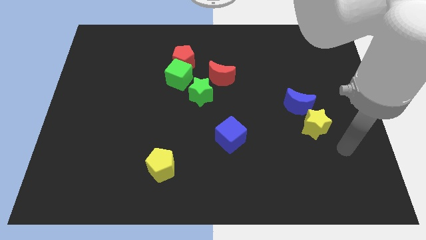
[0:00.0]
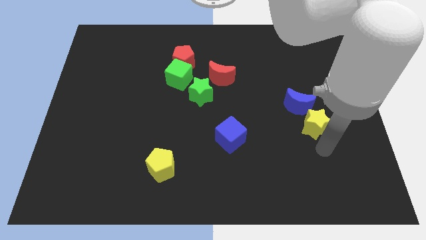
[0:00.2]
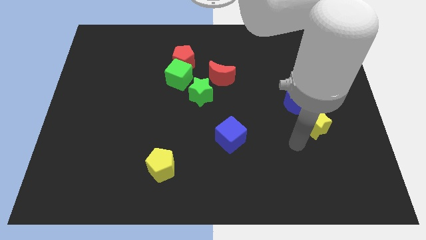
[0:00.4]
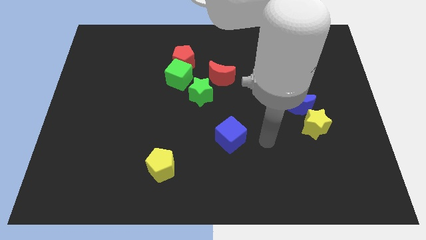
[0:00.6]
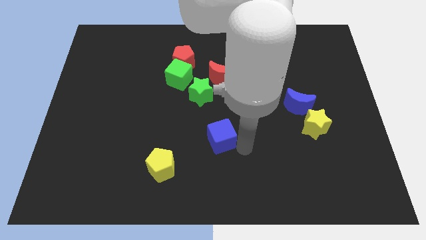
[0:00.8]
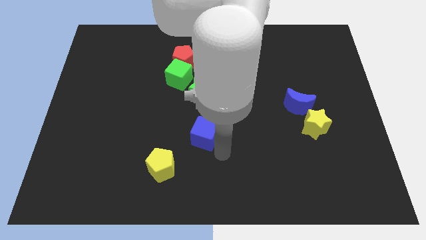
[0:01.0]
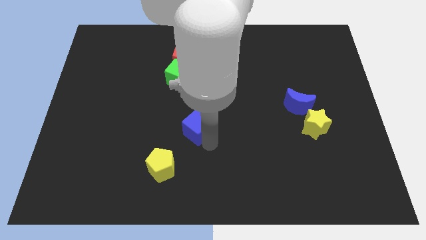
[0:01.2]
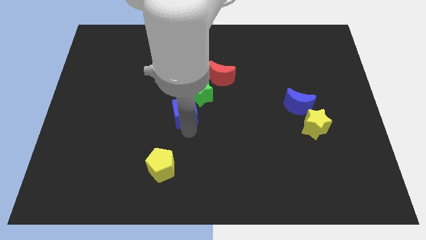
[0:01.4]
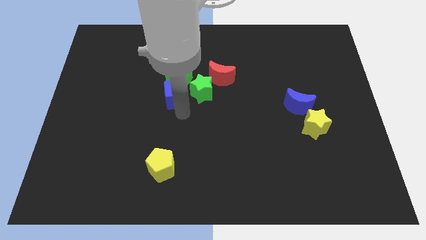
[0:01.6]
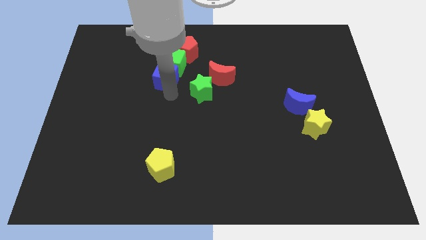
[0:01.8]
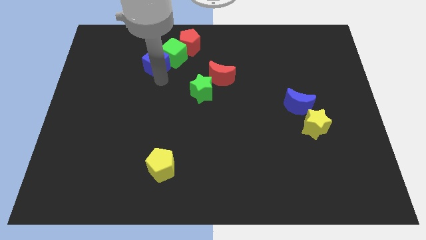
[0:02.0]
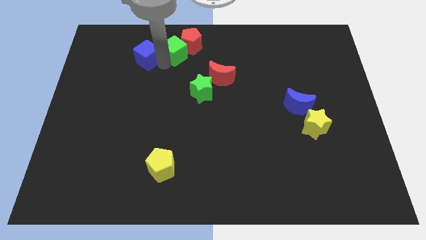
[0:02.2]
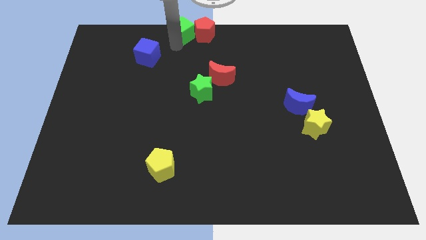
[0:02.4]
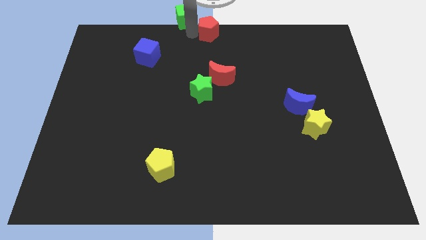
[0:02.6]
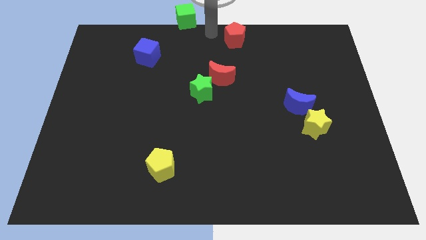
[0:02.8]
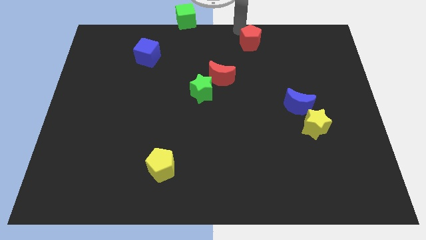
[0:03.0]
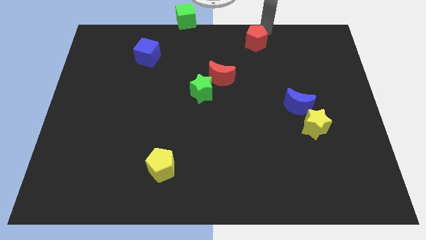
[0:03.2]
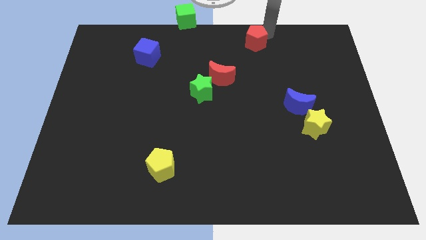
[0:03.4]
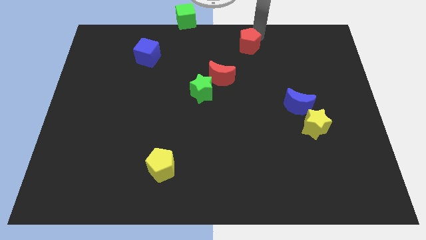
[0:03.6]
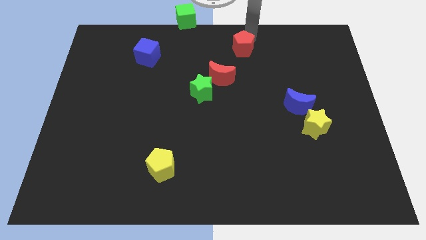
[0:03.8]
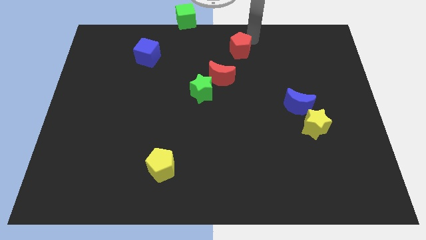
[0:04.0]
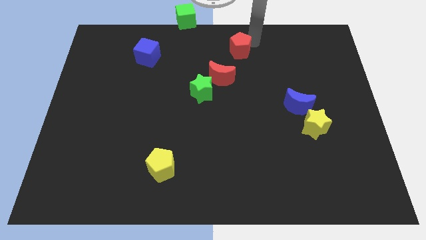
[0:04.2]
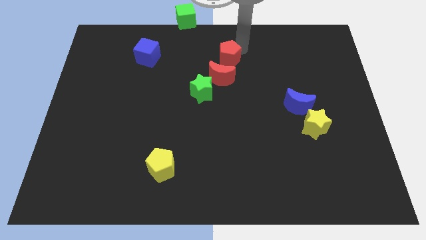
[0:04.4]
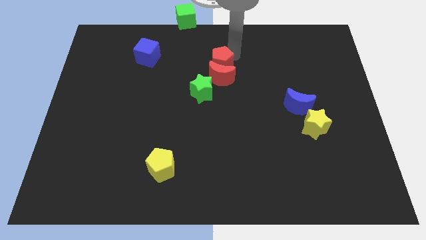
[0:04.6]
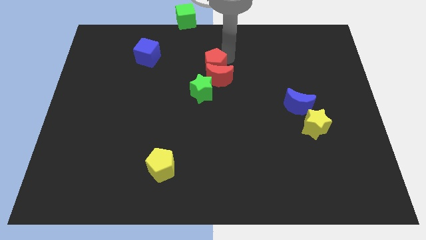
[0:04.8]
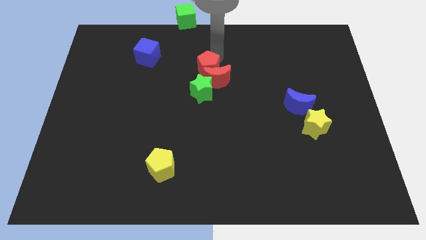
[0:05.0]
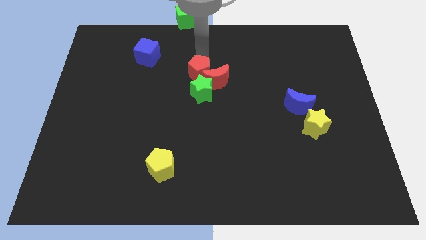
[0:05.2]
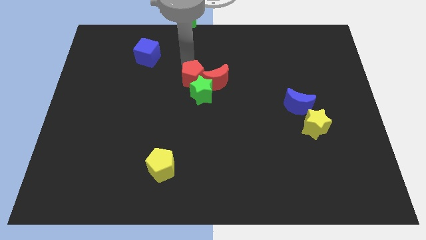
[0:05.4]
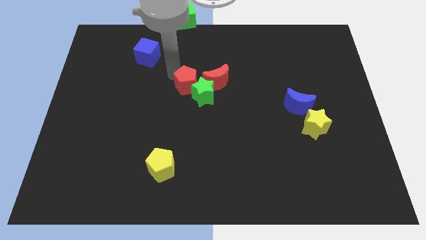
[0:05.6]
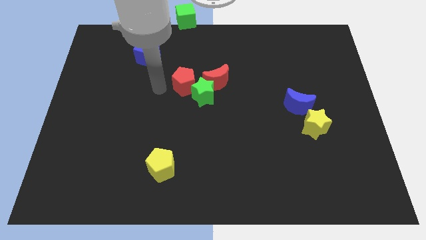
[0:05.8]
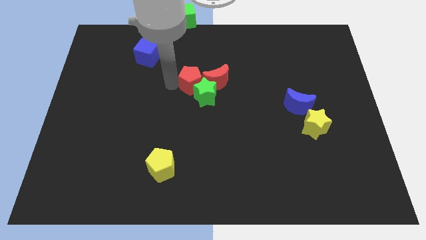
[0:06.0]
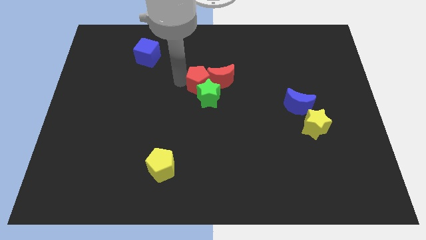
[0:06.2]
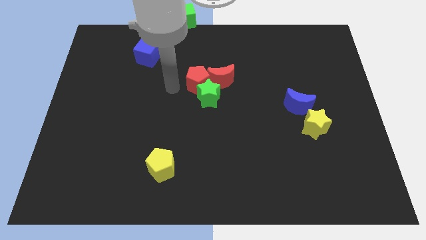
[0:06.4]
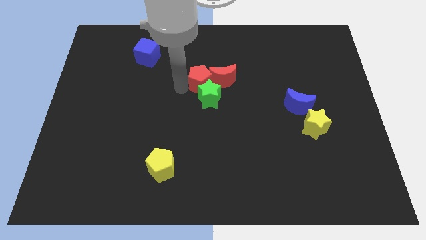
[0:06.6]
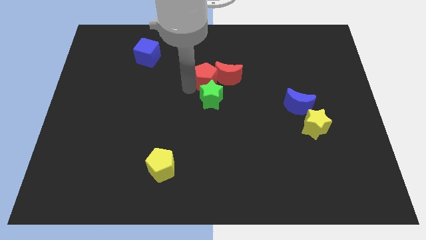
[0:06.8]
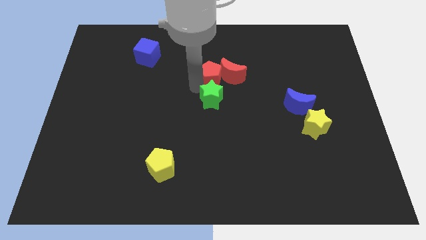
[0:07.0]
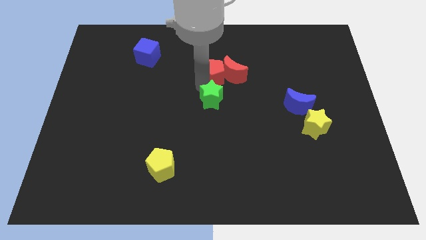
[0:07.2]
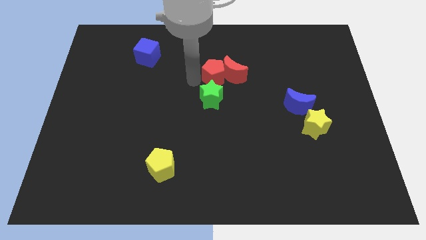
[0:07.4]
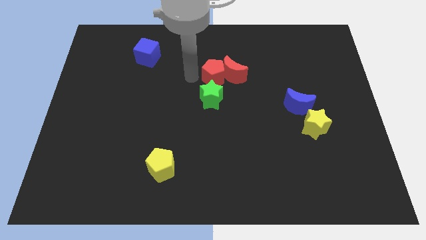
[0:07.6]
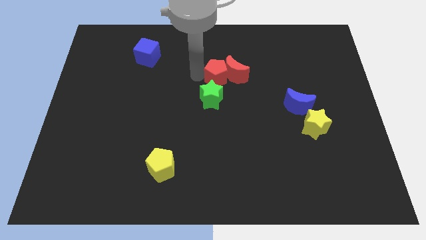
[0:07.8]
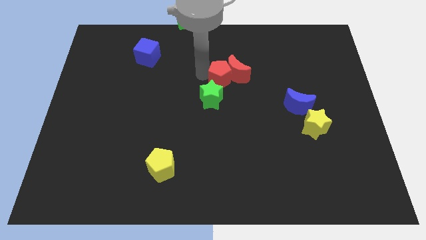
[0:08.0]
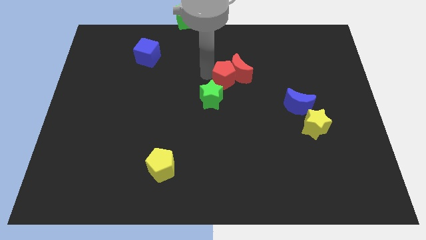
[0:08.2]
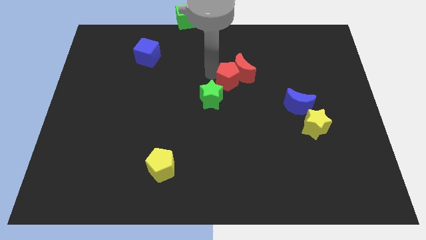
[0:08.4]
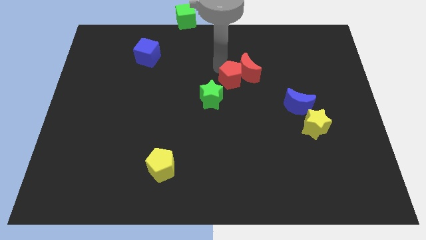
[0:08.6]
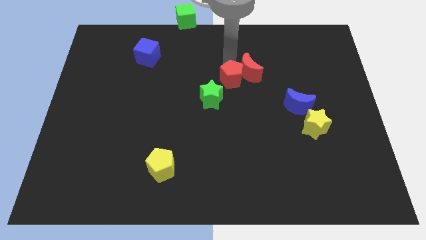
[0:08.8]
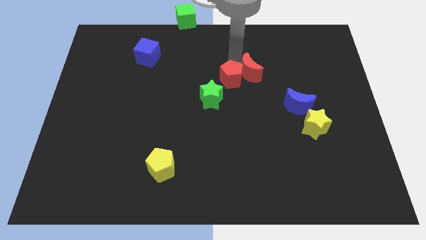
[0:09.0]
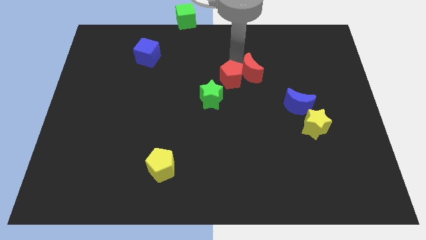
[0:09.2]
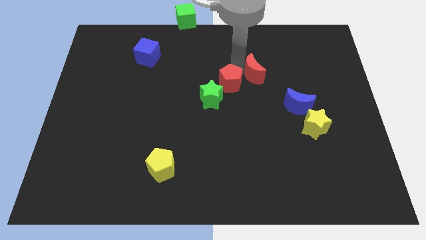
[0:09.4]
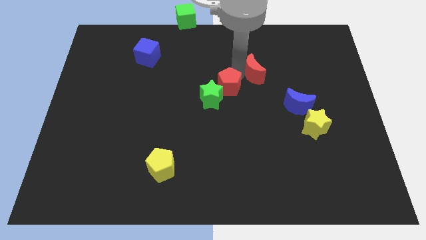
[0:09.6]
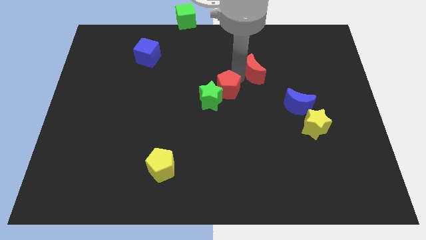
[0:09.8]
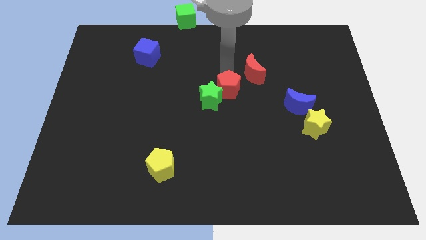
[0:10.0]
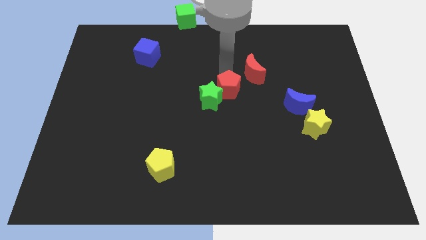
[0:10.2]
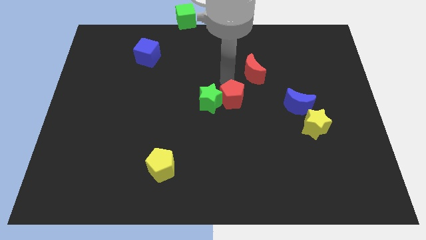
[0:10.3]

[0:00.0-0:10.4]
move the red pentagon diagonally down and to the right of the green star

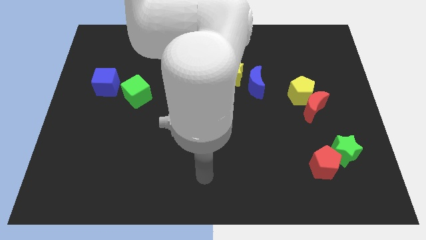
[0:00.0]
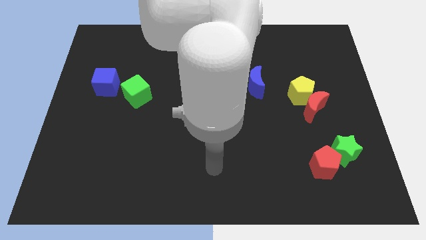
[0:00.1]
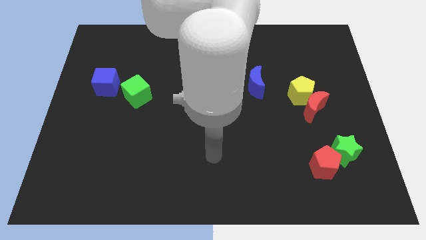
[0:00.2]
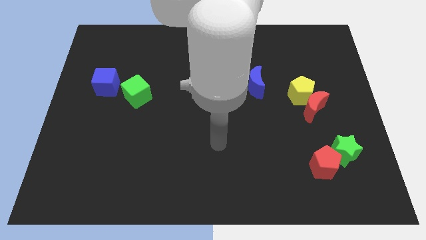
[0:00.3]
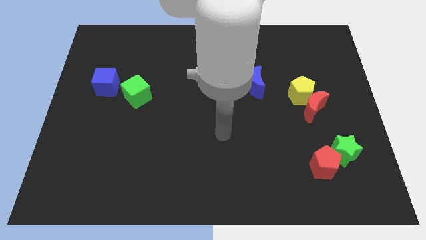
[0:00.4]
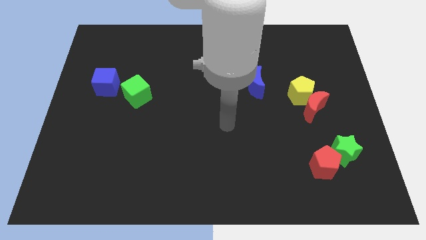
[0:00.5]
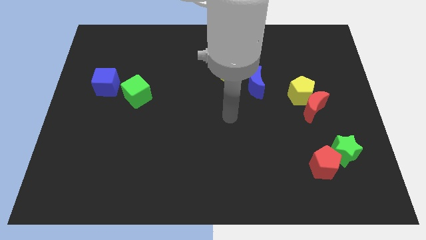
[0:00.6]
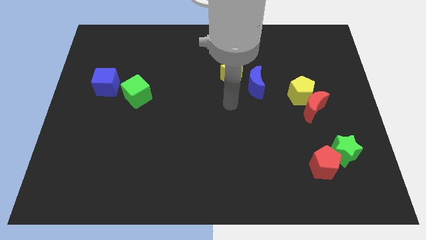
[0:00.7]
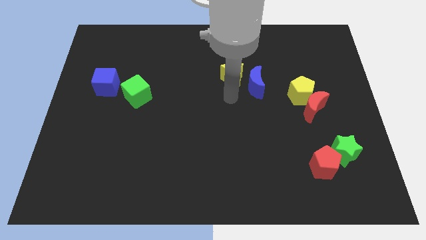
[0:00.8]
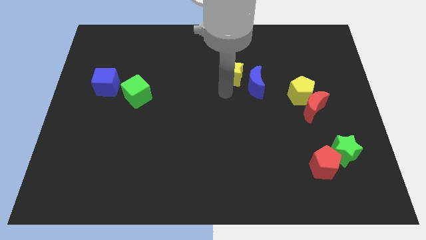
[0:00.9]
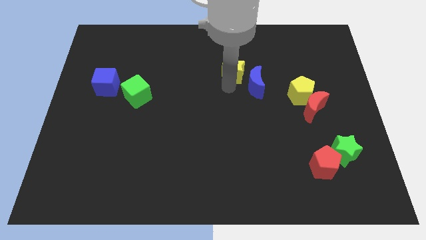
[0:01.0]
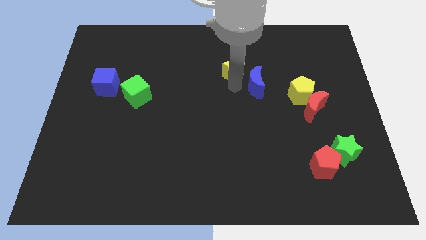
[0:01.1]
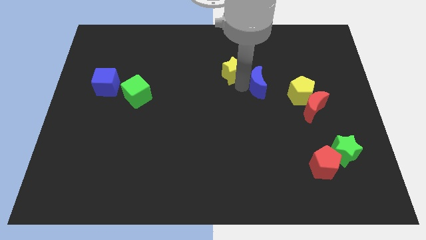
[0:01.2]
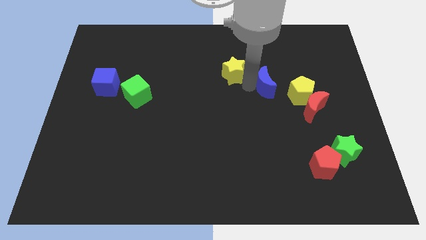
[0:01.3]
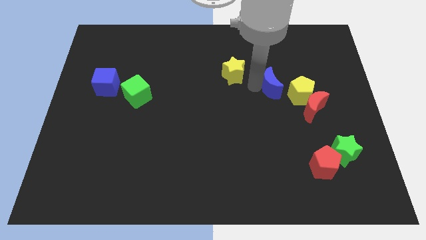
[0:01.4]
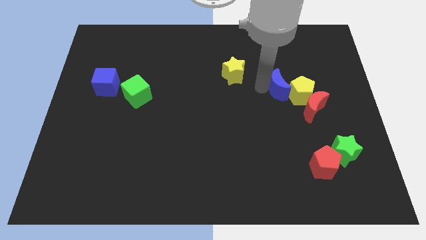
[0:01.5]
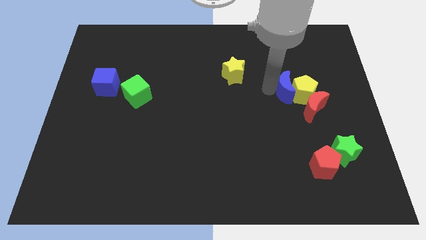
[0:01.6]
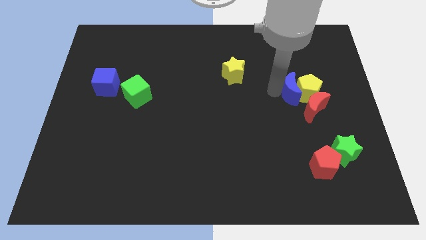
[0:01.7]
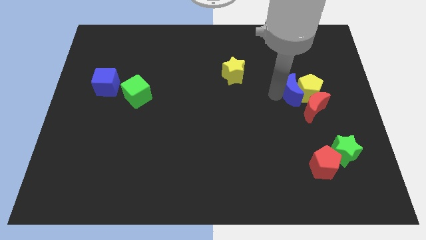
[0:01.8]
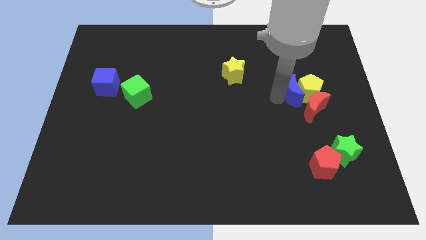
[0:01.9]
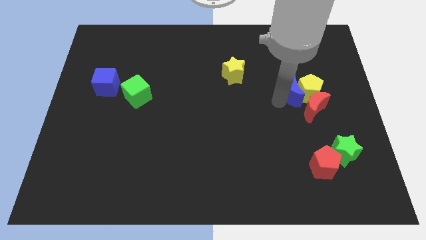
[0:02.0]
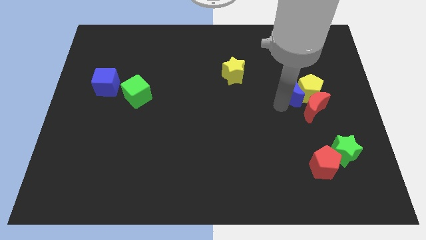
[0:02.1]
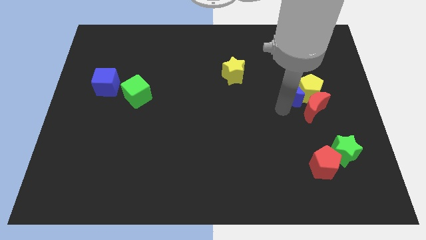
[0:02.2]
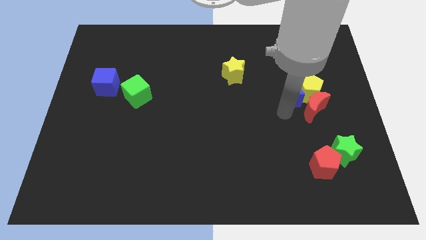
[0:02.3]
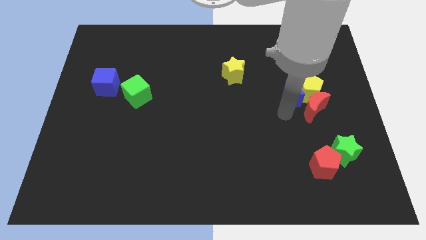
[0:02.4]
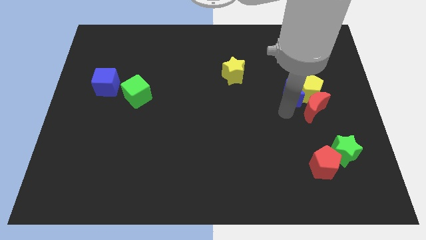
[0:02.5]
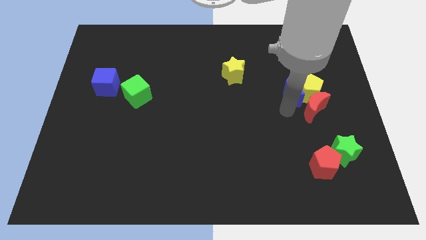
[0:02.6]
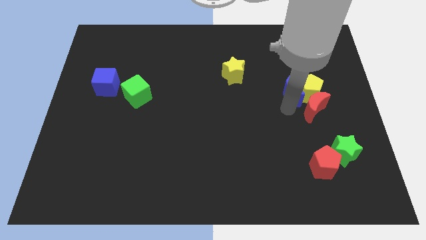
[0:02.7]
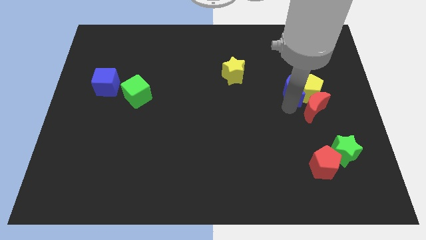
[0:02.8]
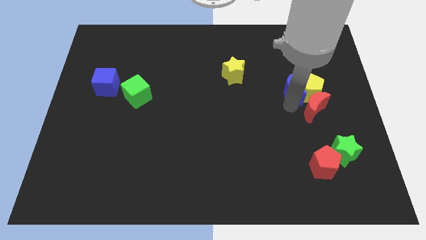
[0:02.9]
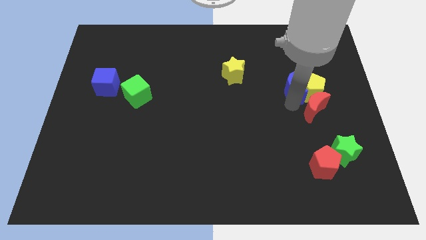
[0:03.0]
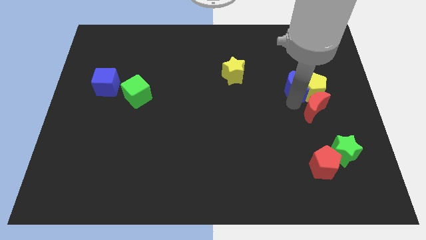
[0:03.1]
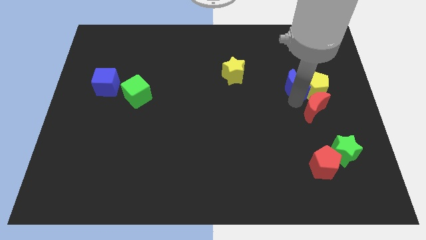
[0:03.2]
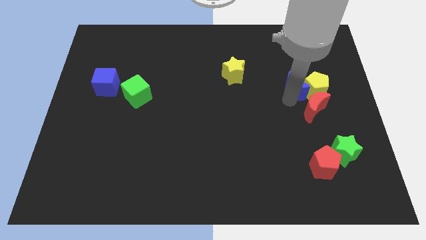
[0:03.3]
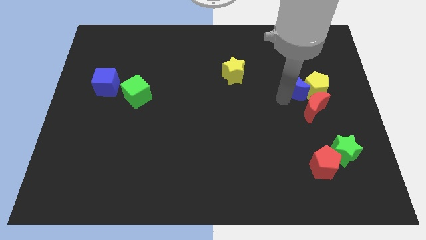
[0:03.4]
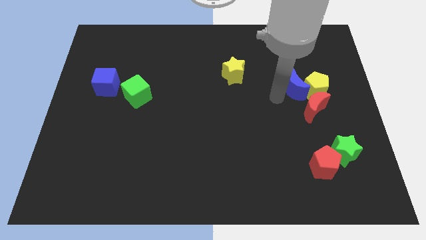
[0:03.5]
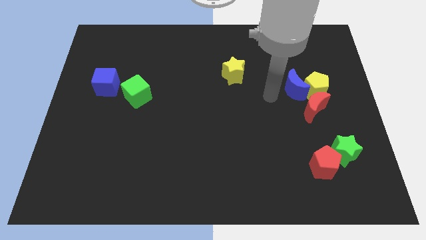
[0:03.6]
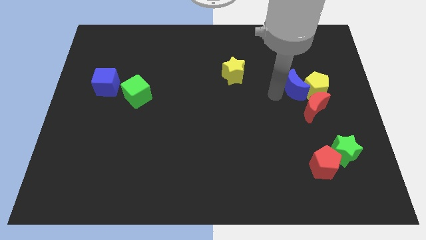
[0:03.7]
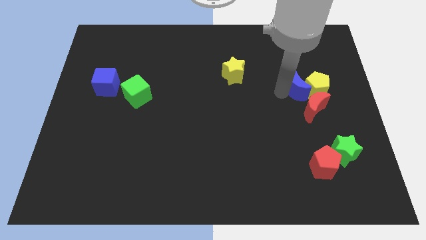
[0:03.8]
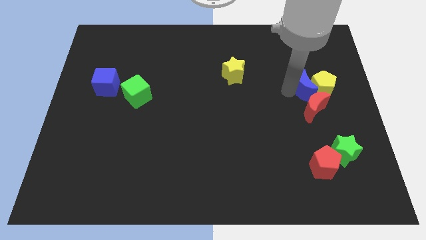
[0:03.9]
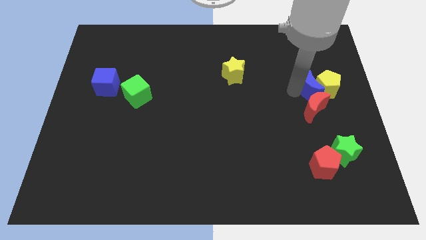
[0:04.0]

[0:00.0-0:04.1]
push the blue moon diagonally up and to the right of the red moon
